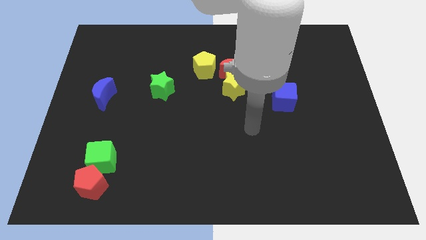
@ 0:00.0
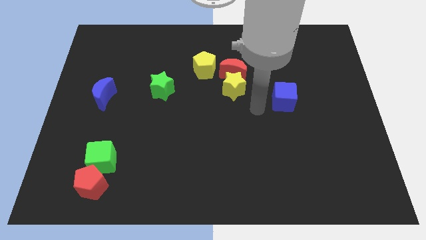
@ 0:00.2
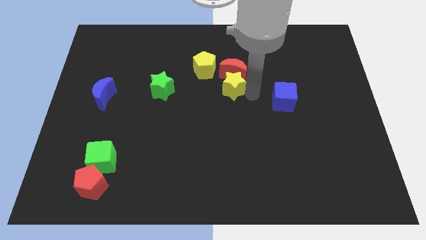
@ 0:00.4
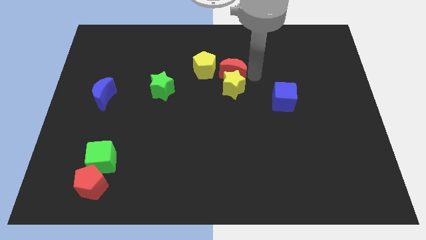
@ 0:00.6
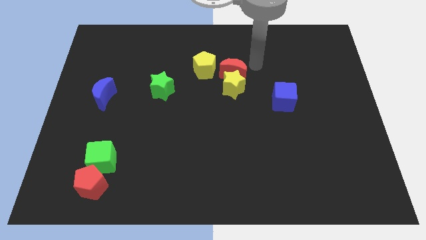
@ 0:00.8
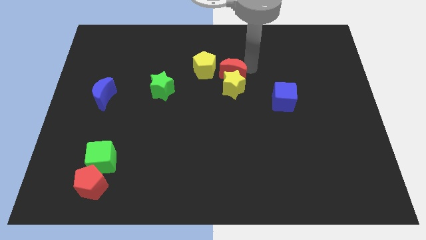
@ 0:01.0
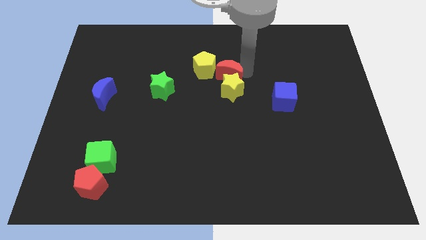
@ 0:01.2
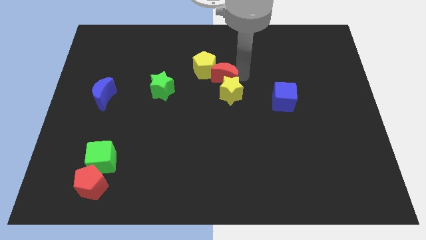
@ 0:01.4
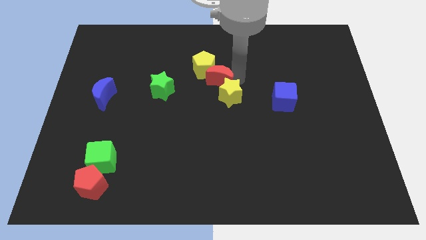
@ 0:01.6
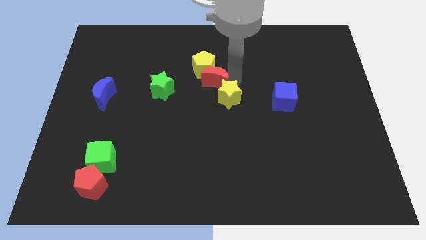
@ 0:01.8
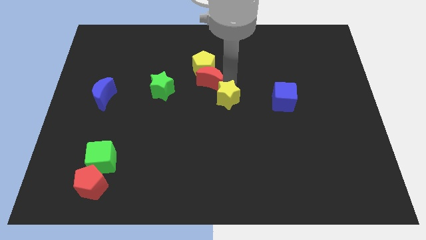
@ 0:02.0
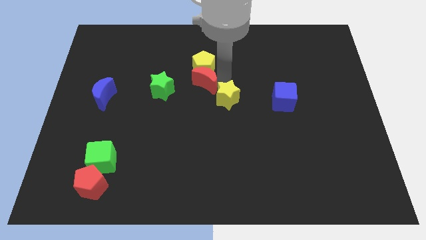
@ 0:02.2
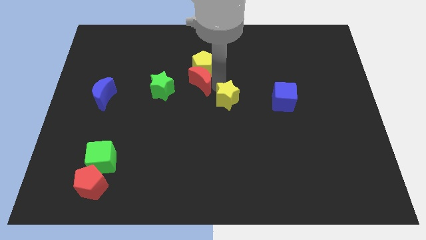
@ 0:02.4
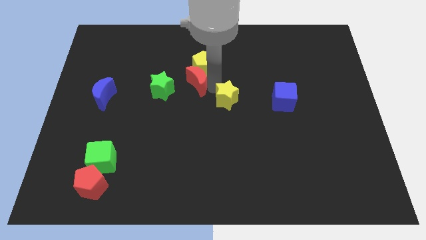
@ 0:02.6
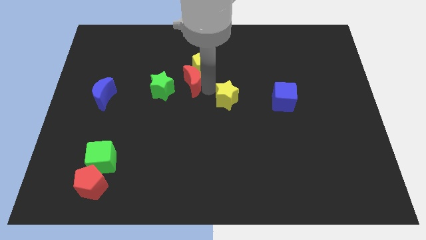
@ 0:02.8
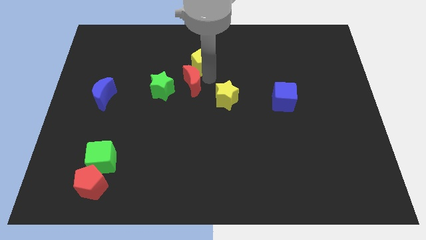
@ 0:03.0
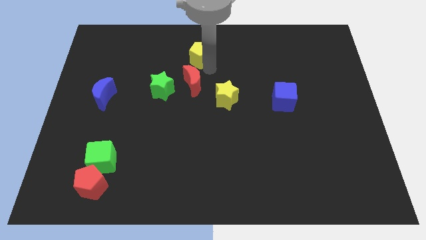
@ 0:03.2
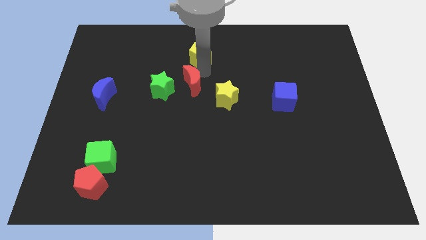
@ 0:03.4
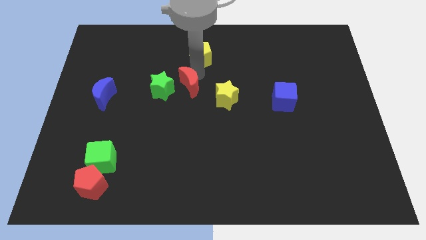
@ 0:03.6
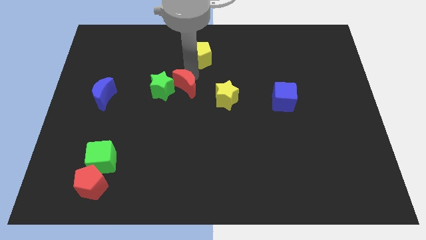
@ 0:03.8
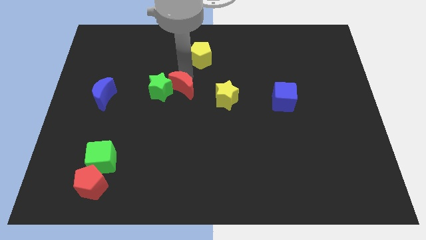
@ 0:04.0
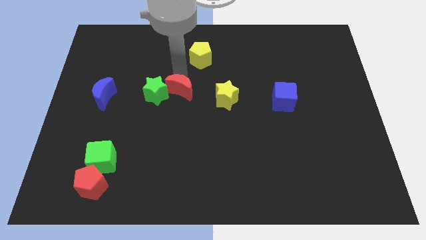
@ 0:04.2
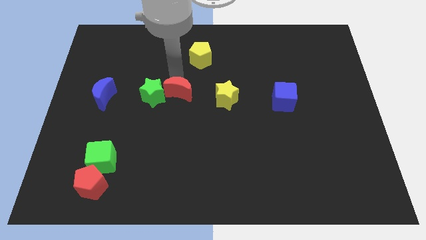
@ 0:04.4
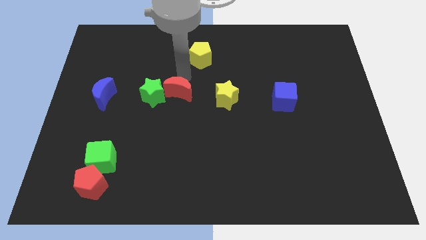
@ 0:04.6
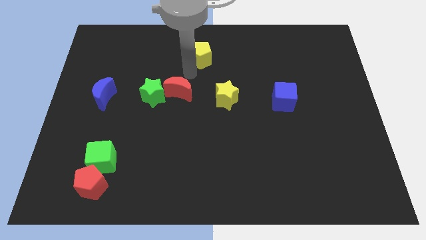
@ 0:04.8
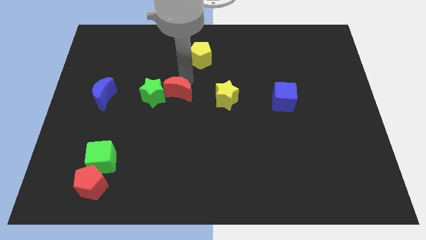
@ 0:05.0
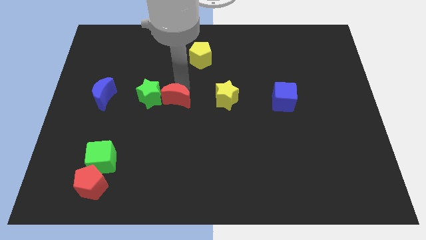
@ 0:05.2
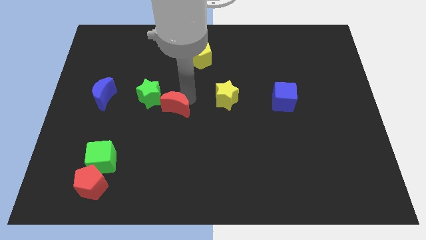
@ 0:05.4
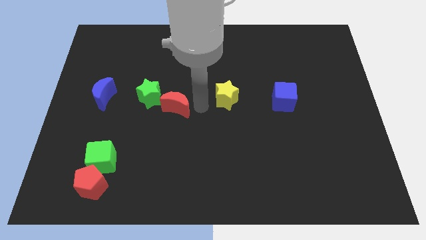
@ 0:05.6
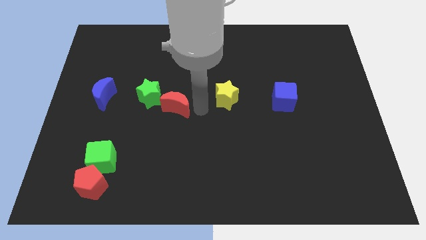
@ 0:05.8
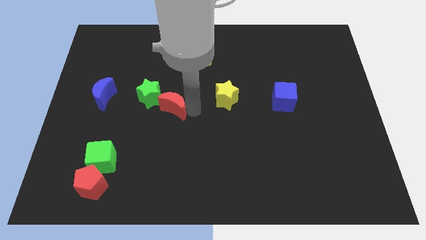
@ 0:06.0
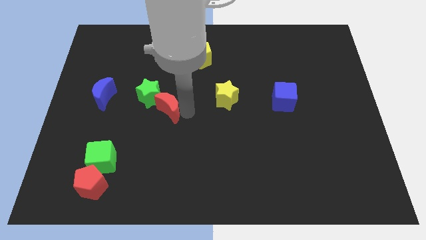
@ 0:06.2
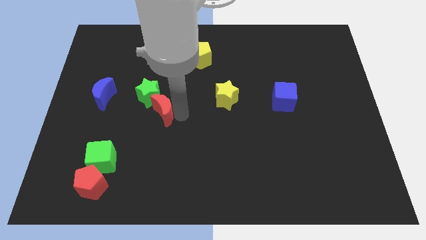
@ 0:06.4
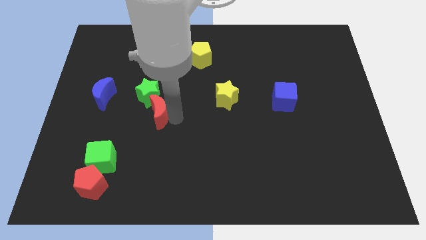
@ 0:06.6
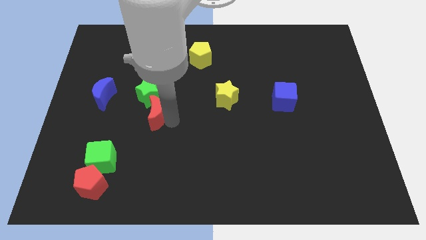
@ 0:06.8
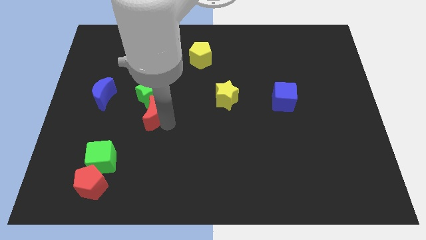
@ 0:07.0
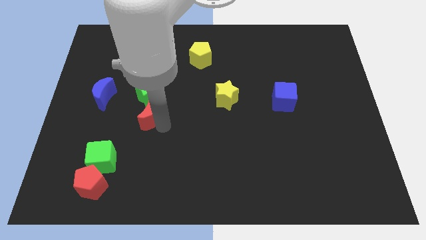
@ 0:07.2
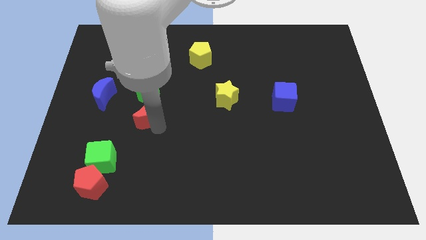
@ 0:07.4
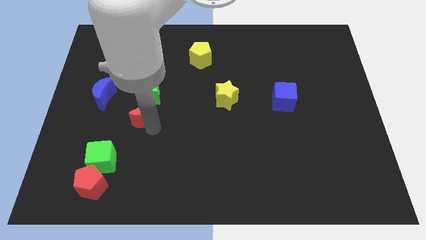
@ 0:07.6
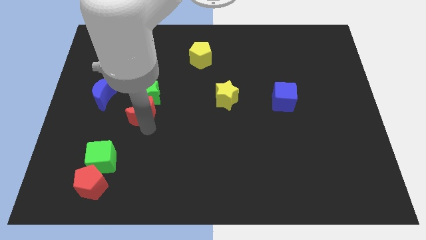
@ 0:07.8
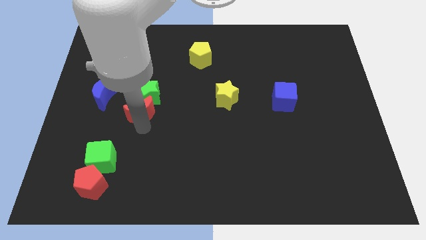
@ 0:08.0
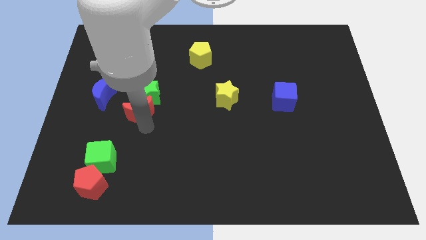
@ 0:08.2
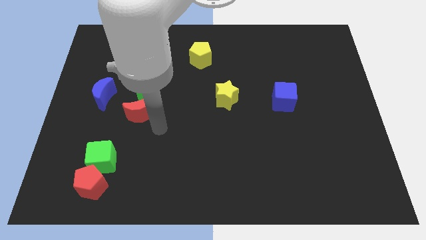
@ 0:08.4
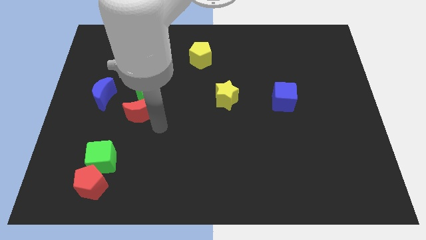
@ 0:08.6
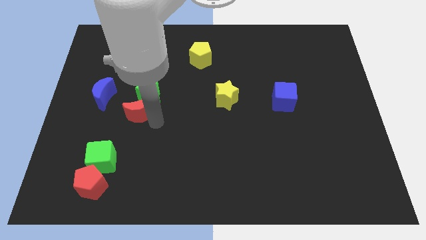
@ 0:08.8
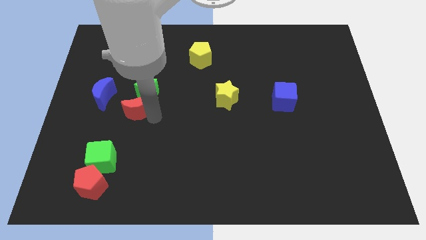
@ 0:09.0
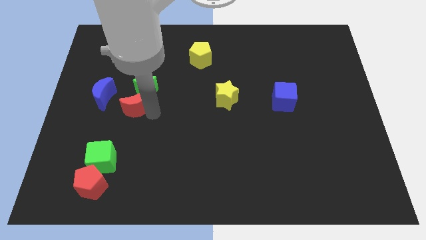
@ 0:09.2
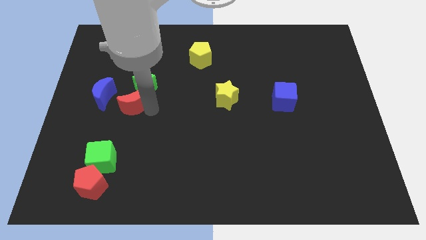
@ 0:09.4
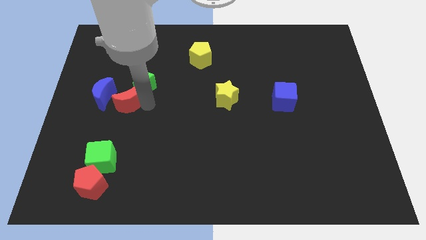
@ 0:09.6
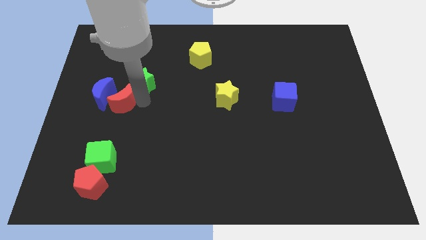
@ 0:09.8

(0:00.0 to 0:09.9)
push the red moon close to the blue moon

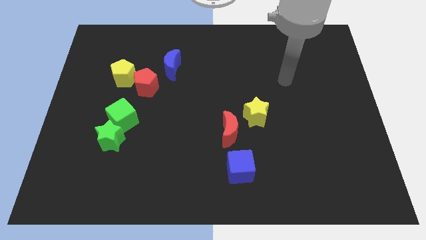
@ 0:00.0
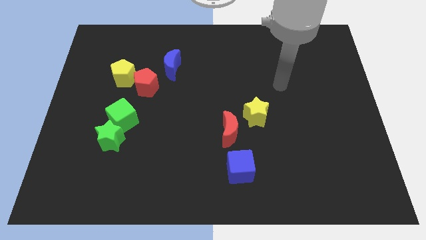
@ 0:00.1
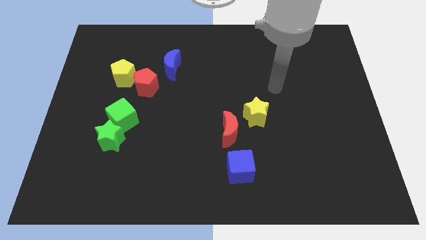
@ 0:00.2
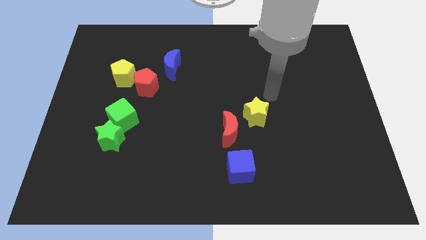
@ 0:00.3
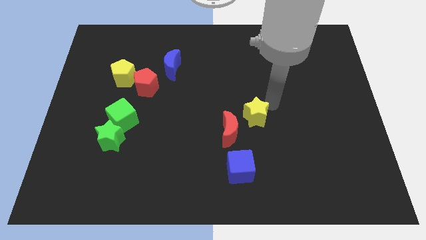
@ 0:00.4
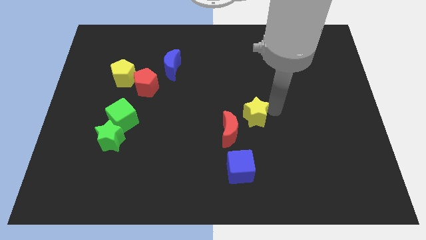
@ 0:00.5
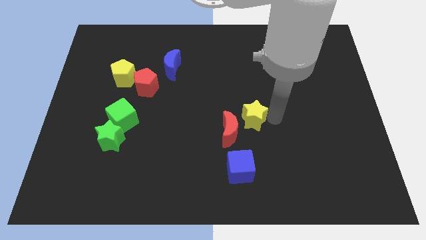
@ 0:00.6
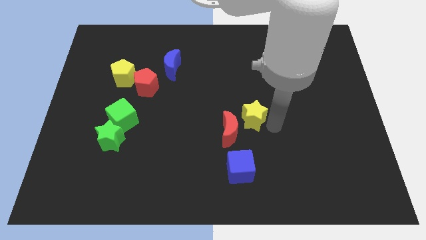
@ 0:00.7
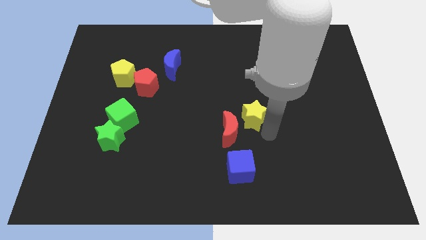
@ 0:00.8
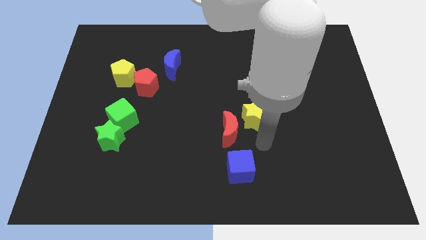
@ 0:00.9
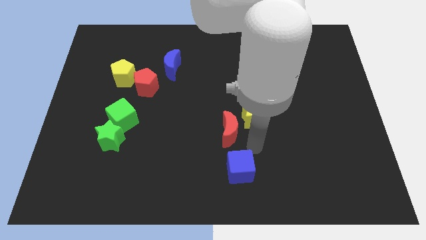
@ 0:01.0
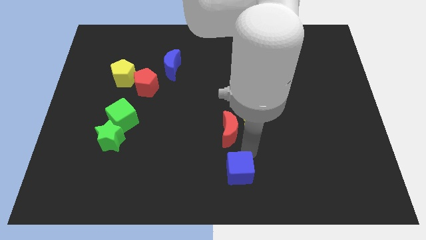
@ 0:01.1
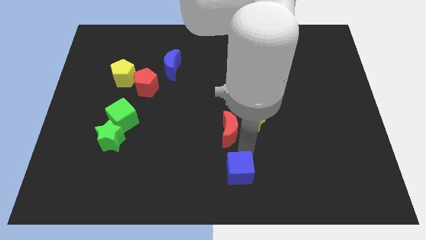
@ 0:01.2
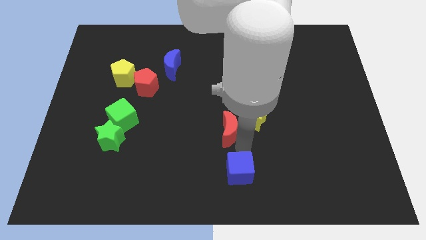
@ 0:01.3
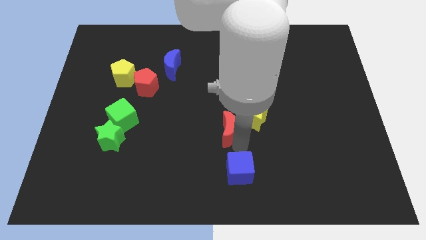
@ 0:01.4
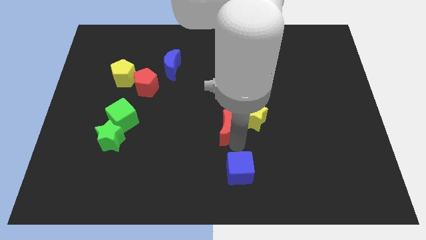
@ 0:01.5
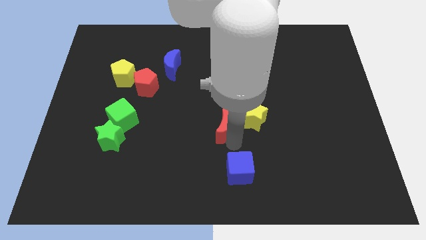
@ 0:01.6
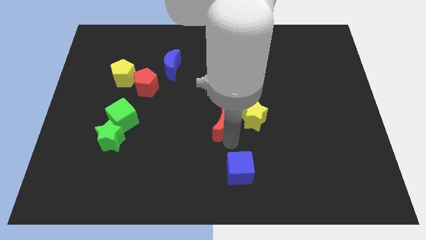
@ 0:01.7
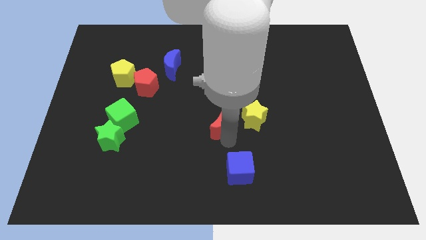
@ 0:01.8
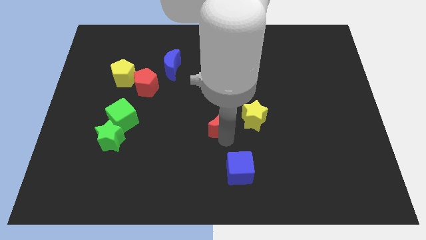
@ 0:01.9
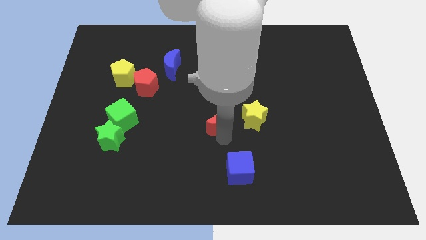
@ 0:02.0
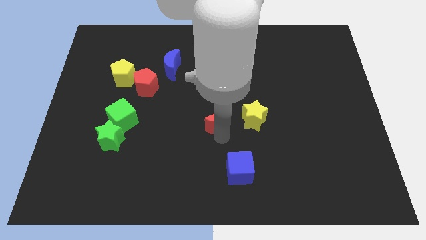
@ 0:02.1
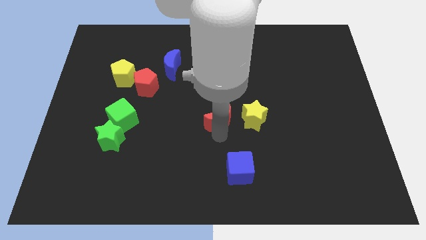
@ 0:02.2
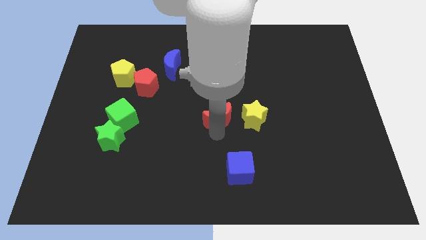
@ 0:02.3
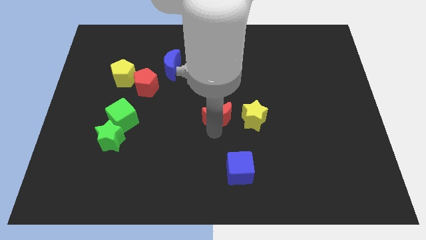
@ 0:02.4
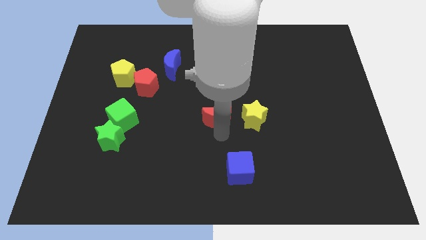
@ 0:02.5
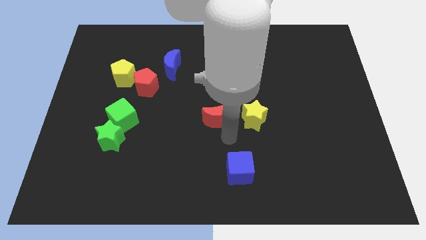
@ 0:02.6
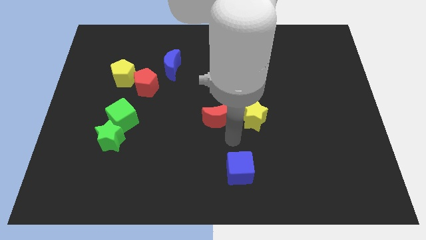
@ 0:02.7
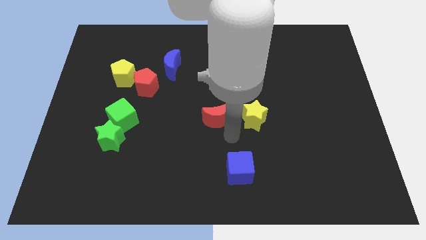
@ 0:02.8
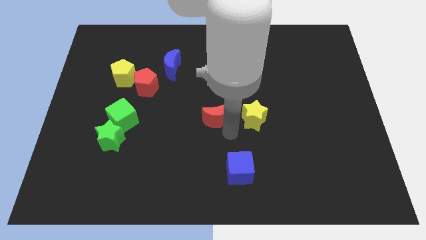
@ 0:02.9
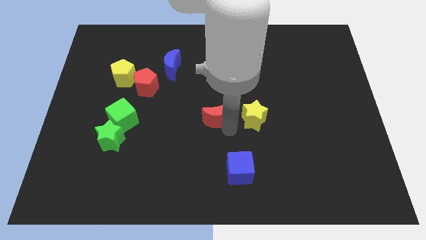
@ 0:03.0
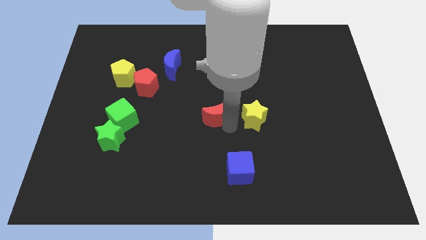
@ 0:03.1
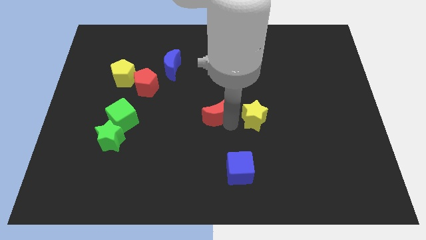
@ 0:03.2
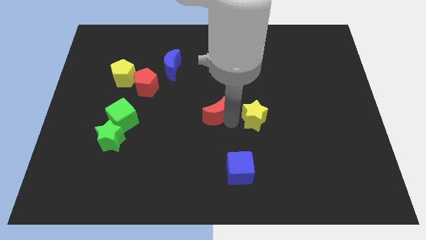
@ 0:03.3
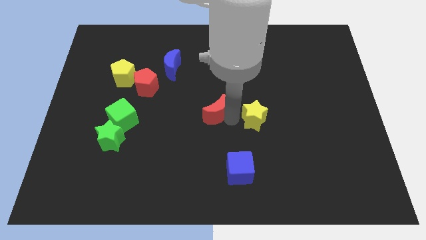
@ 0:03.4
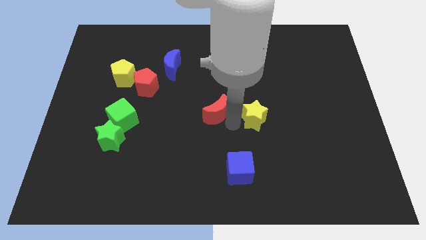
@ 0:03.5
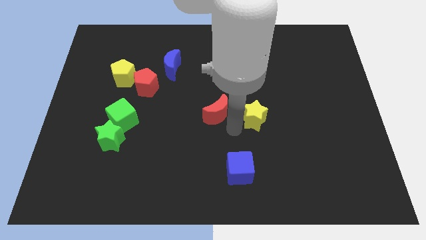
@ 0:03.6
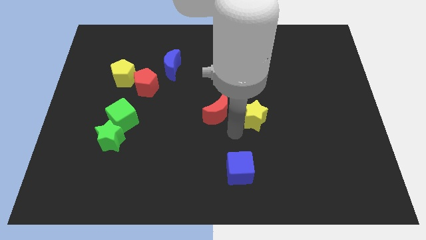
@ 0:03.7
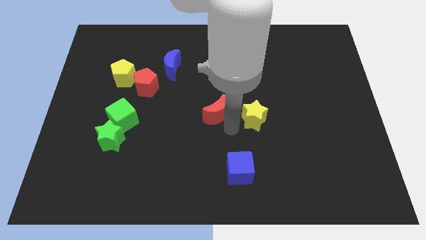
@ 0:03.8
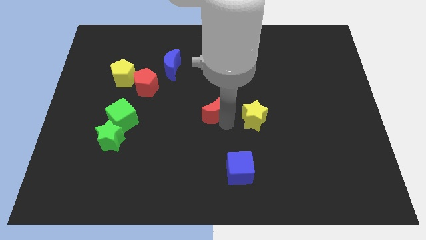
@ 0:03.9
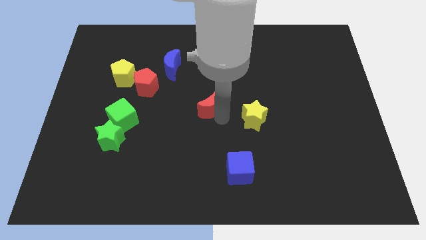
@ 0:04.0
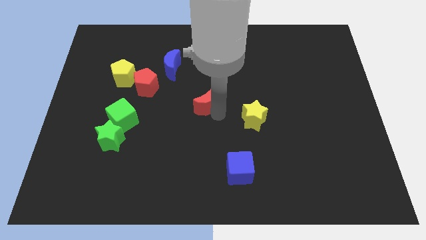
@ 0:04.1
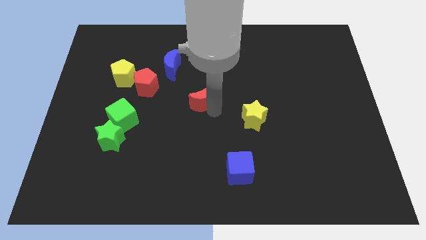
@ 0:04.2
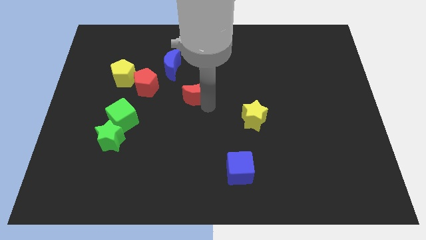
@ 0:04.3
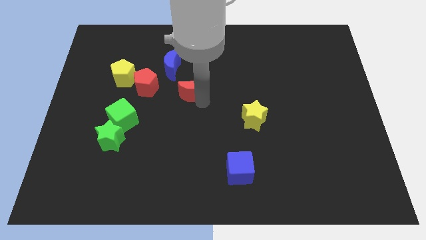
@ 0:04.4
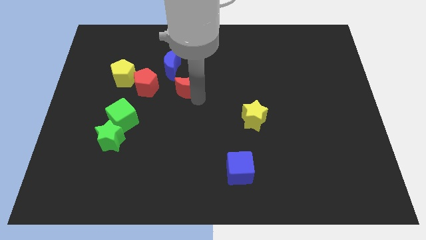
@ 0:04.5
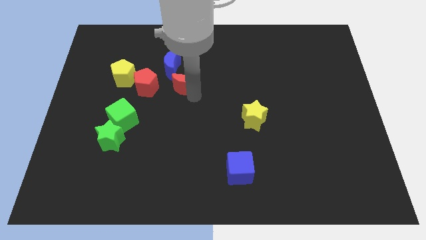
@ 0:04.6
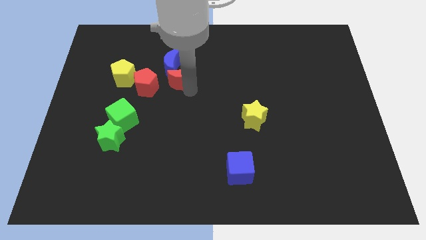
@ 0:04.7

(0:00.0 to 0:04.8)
slide the red moon next to the blue moon
